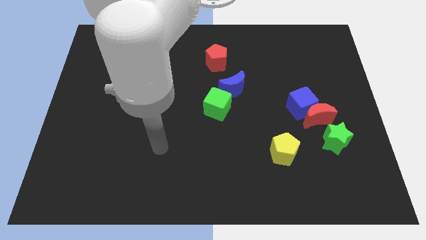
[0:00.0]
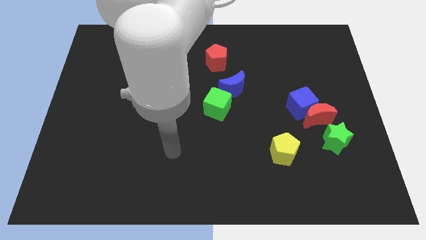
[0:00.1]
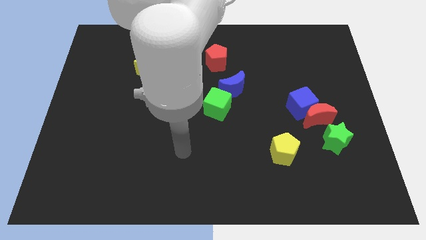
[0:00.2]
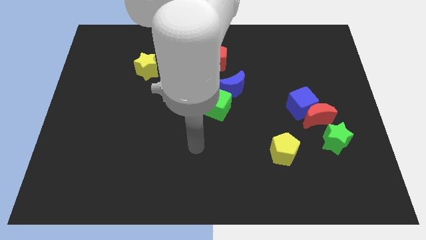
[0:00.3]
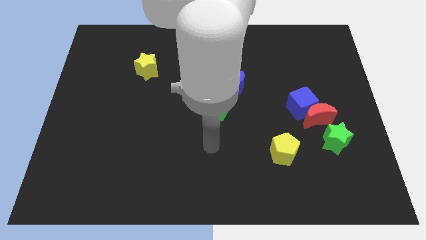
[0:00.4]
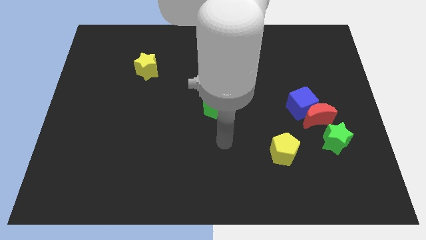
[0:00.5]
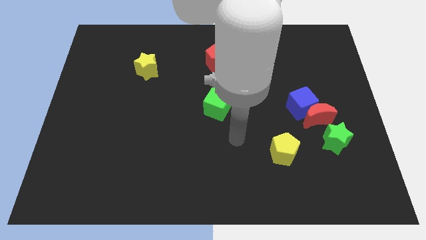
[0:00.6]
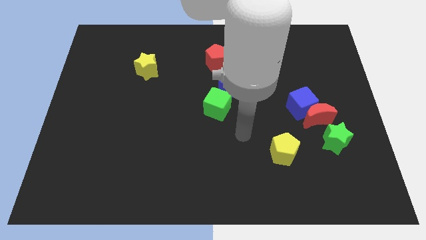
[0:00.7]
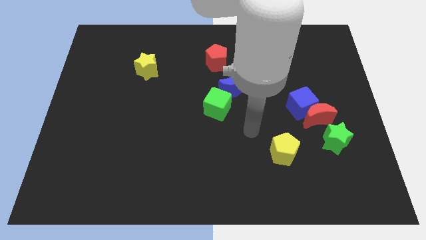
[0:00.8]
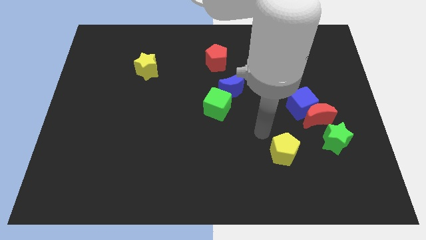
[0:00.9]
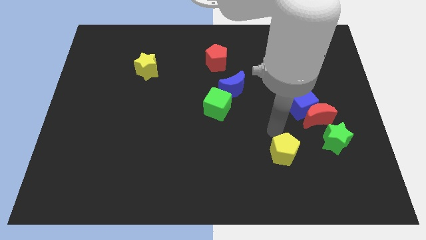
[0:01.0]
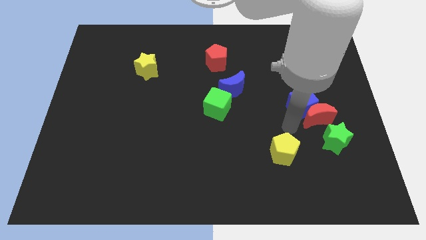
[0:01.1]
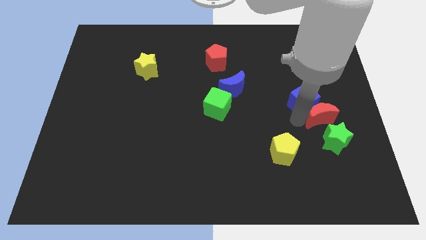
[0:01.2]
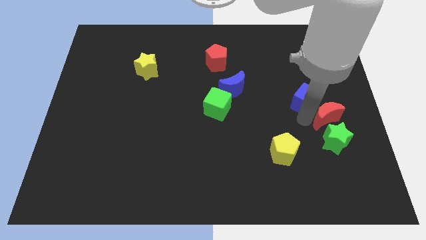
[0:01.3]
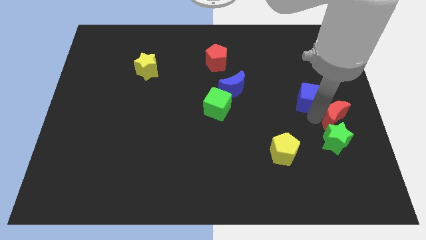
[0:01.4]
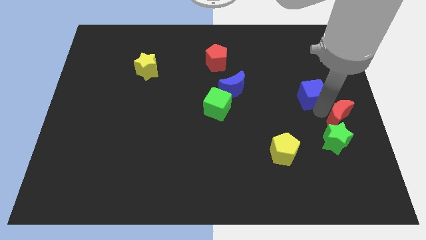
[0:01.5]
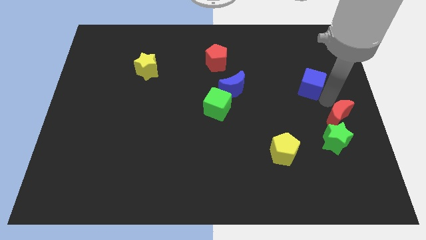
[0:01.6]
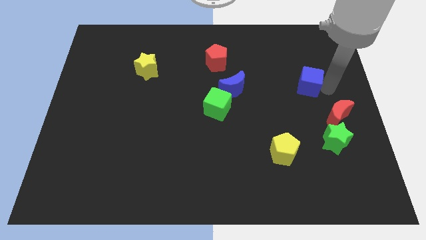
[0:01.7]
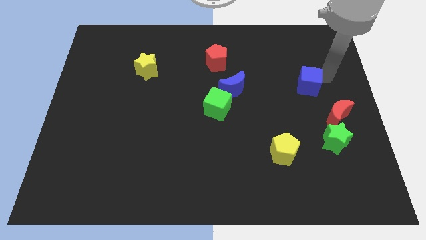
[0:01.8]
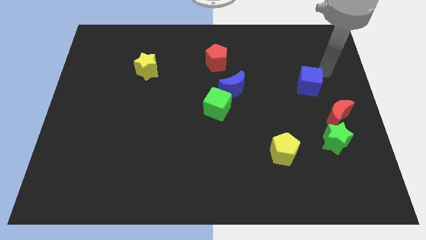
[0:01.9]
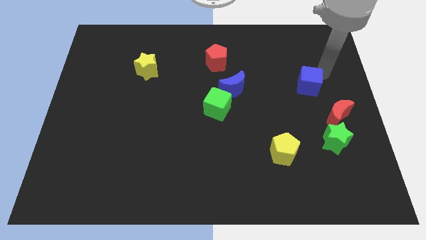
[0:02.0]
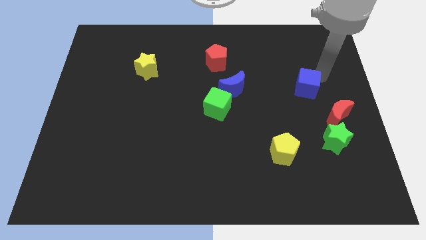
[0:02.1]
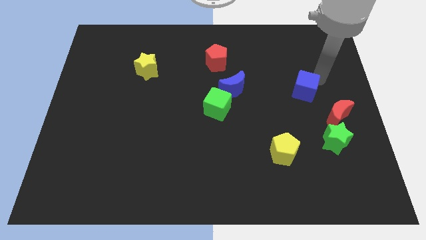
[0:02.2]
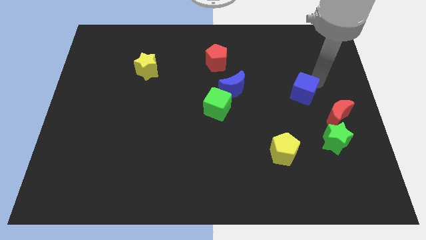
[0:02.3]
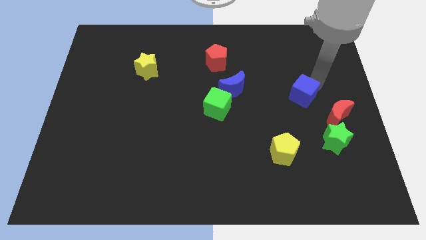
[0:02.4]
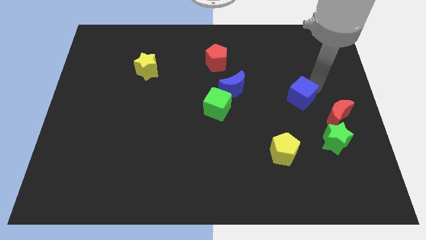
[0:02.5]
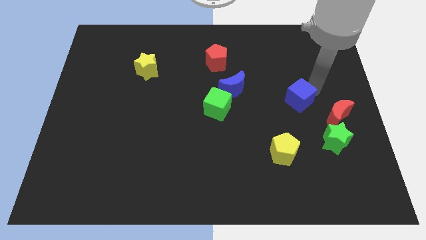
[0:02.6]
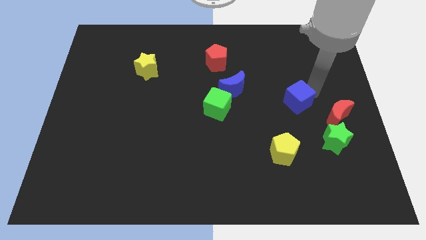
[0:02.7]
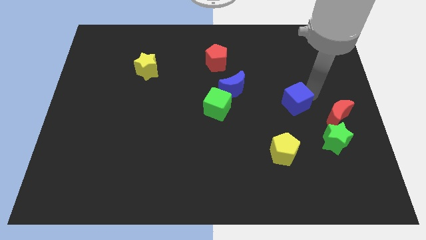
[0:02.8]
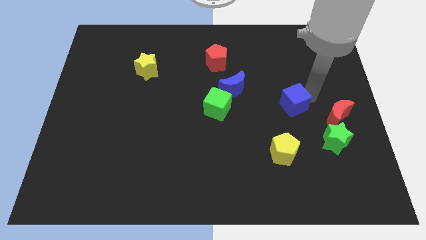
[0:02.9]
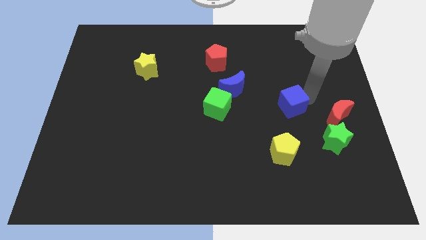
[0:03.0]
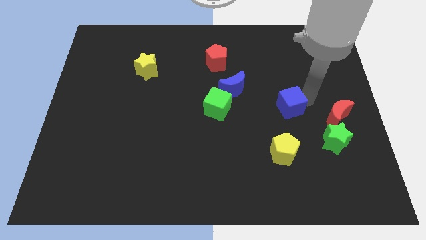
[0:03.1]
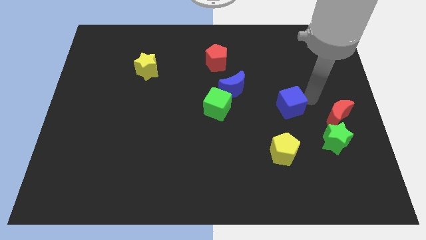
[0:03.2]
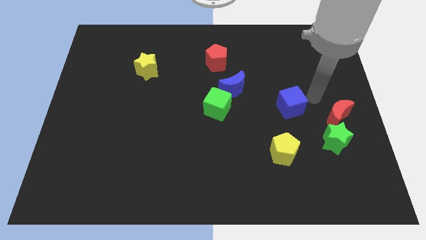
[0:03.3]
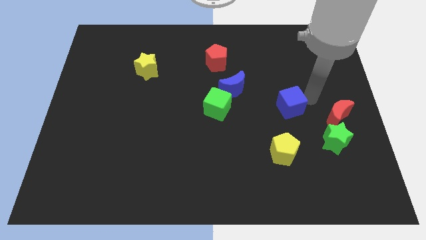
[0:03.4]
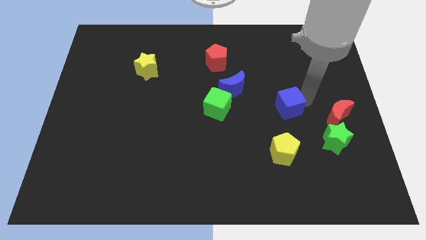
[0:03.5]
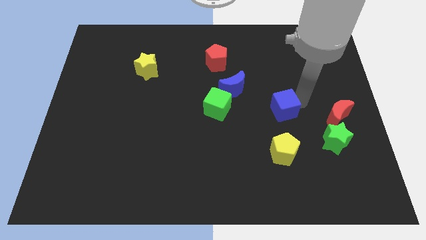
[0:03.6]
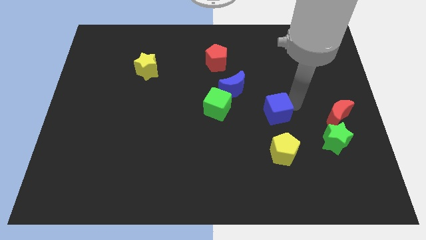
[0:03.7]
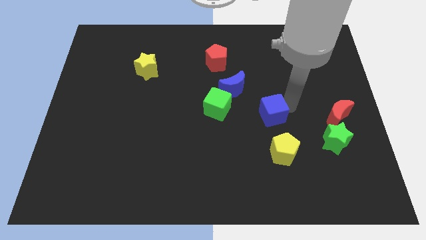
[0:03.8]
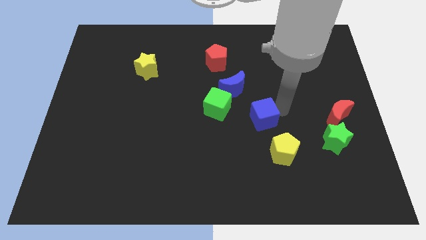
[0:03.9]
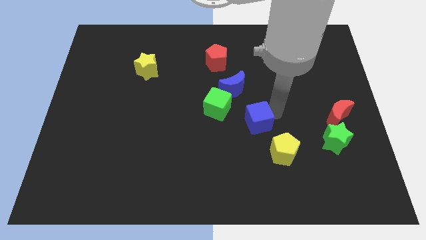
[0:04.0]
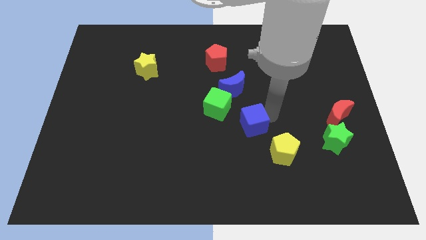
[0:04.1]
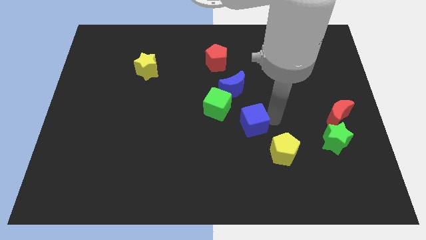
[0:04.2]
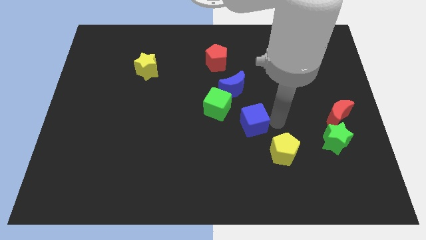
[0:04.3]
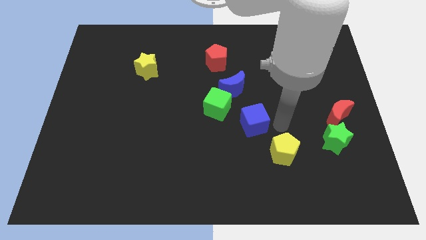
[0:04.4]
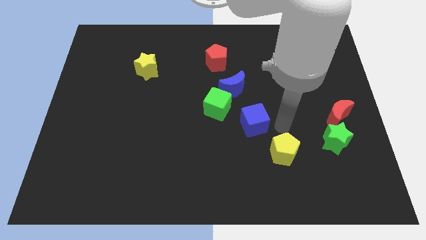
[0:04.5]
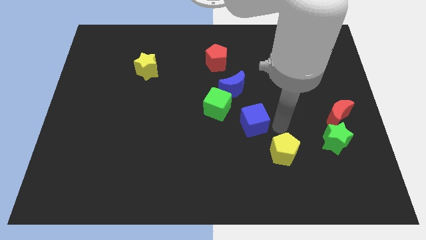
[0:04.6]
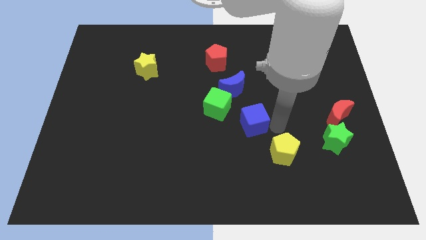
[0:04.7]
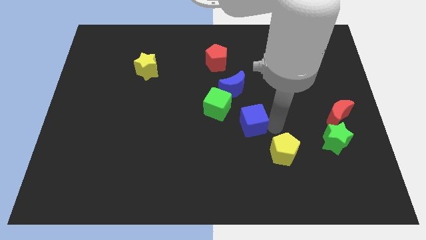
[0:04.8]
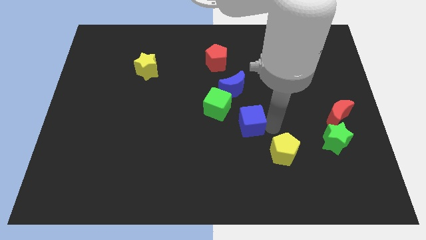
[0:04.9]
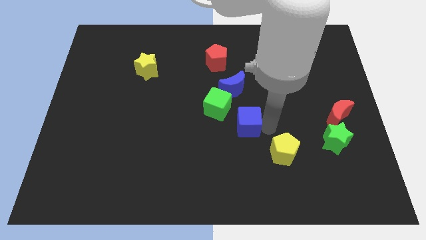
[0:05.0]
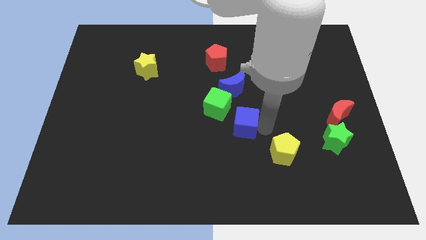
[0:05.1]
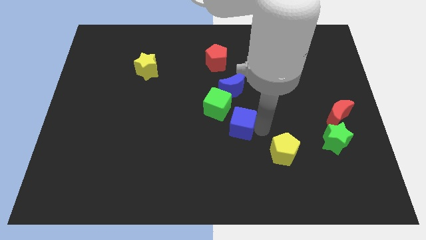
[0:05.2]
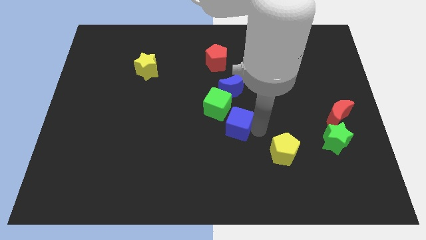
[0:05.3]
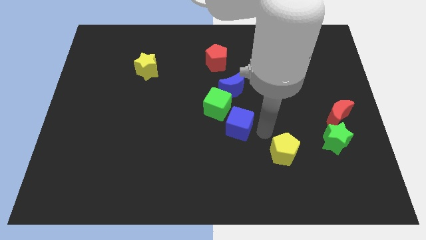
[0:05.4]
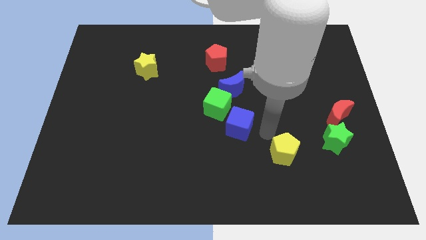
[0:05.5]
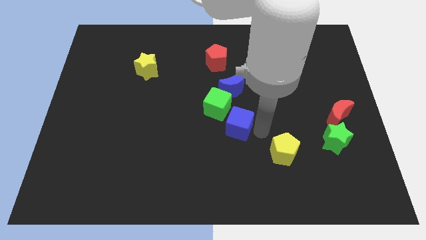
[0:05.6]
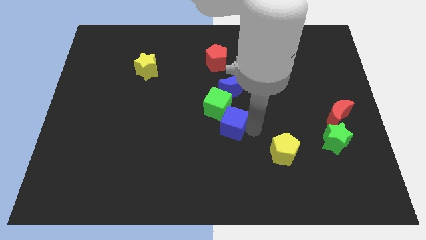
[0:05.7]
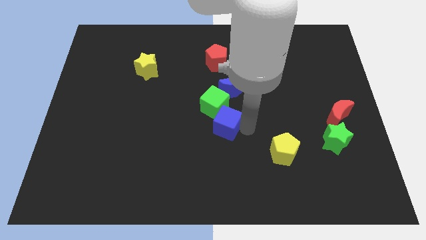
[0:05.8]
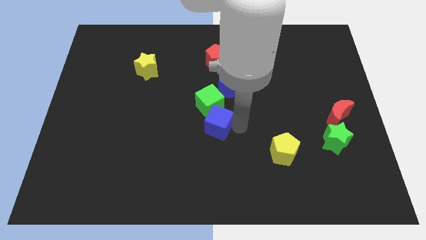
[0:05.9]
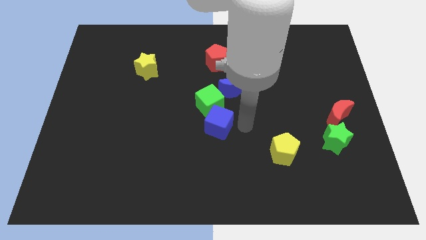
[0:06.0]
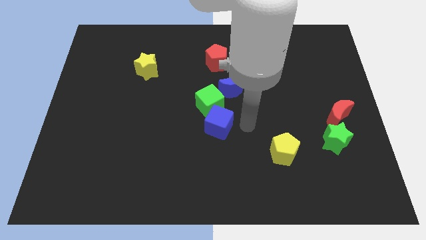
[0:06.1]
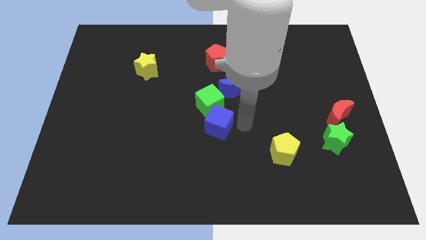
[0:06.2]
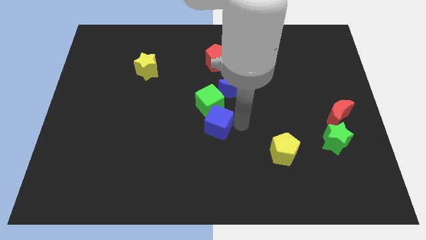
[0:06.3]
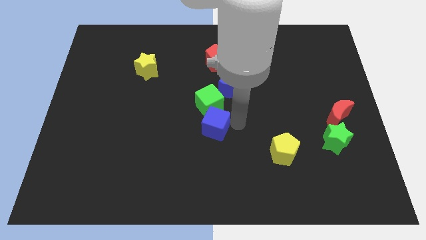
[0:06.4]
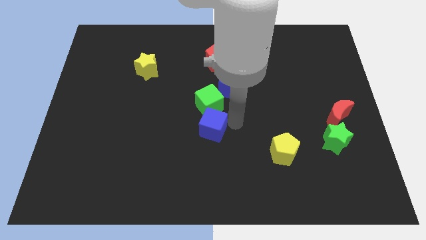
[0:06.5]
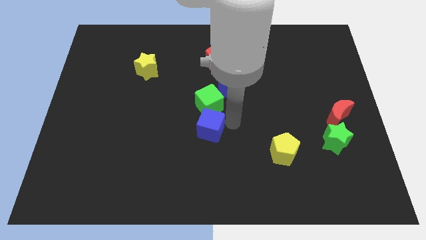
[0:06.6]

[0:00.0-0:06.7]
move the blue cube left

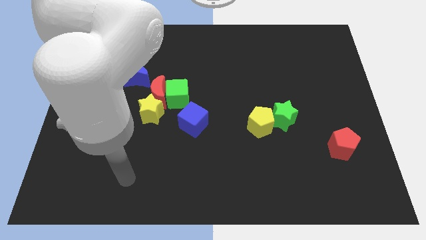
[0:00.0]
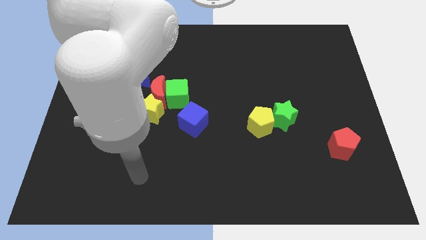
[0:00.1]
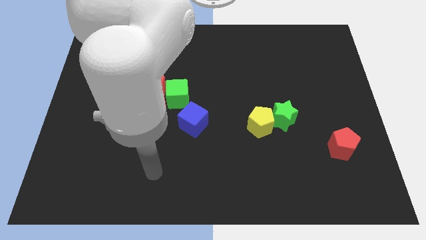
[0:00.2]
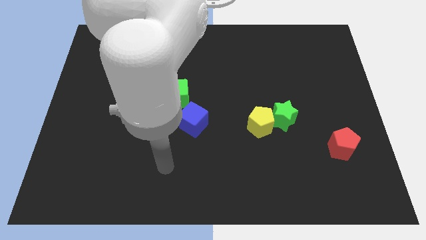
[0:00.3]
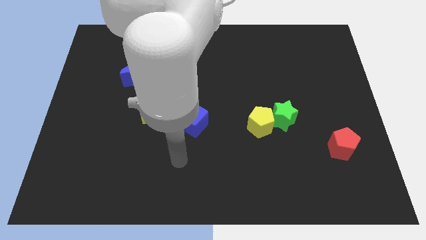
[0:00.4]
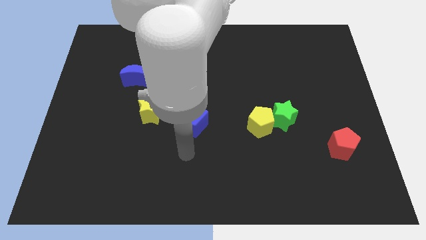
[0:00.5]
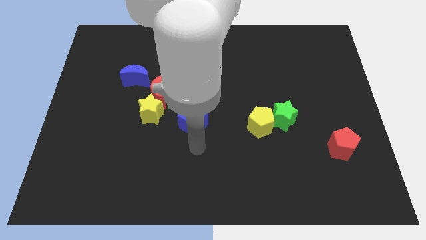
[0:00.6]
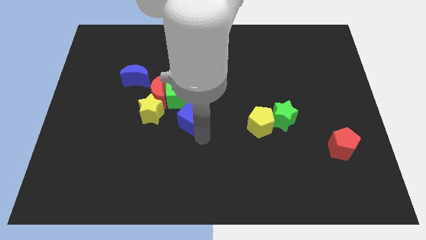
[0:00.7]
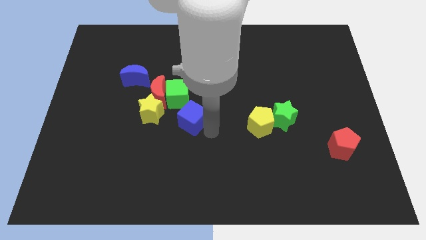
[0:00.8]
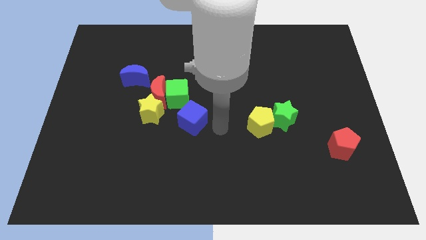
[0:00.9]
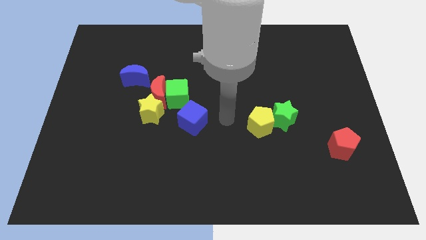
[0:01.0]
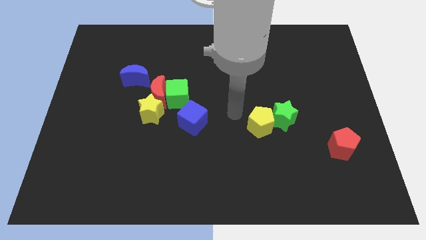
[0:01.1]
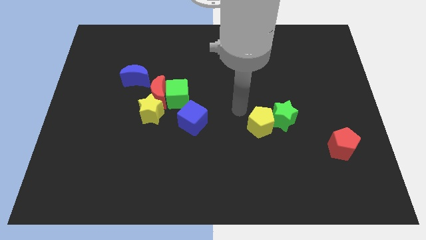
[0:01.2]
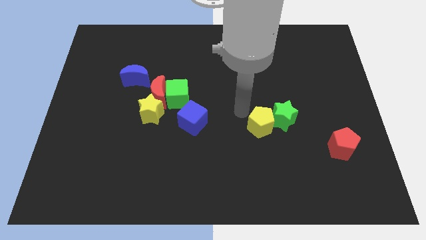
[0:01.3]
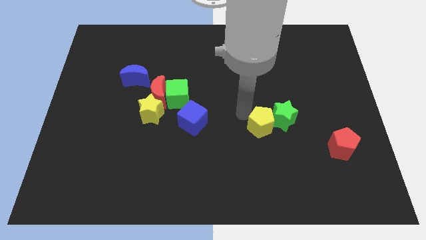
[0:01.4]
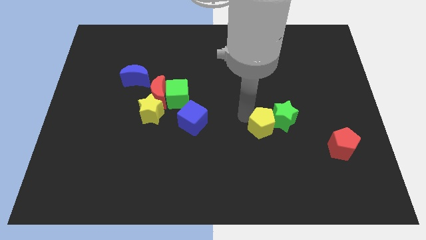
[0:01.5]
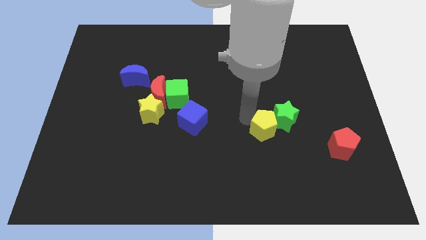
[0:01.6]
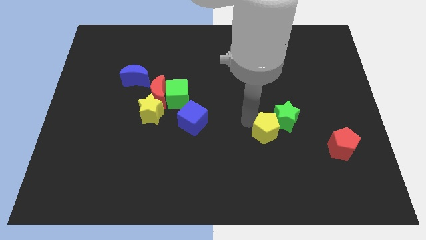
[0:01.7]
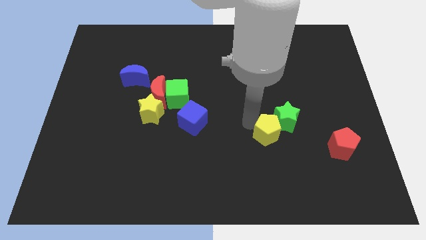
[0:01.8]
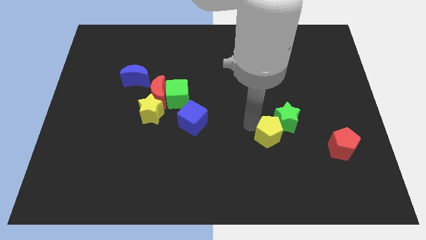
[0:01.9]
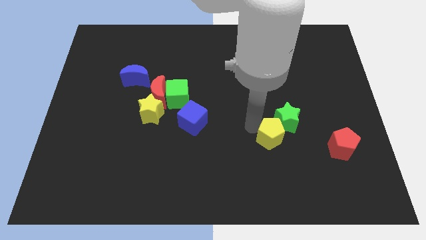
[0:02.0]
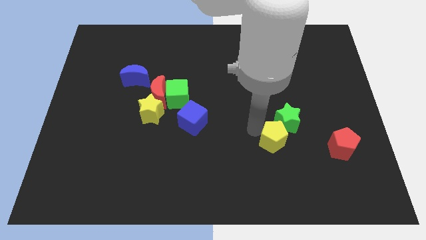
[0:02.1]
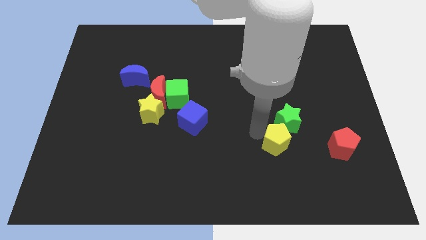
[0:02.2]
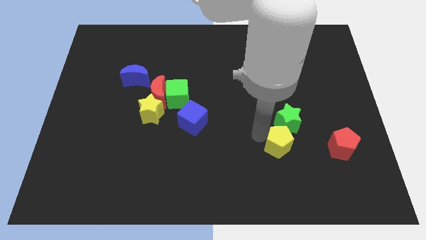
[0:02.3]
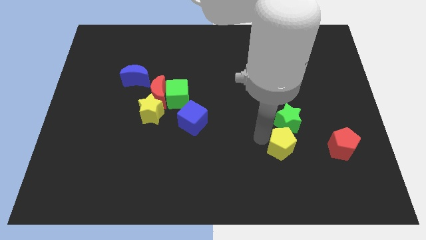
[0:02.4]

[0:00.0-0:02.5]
slightly slide the yellow pentagon down and right diagonally
